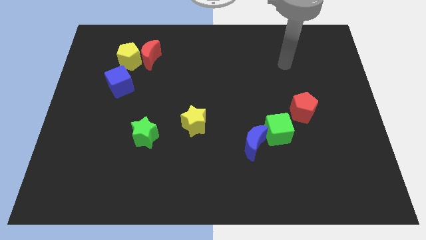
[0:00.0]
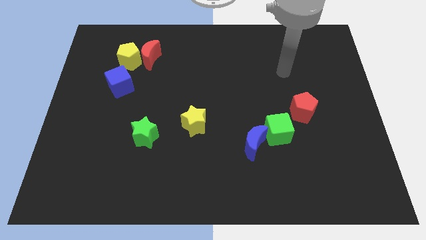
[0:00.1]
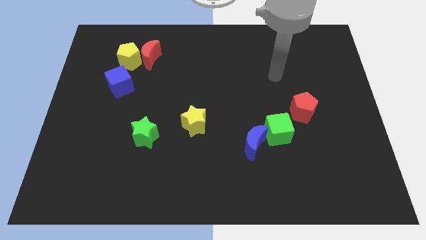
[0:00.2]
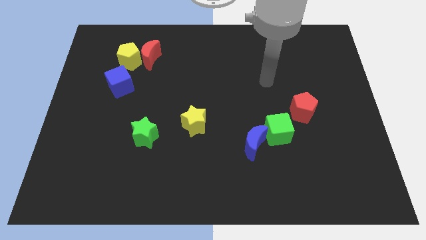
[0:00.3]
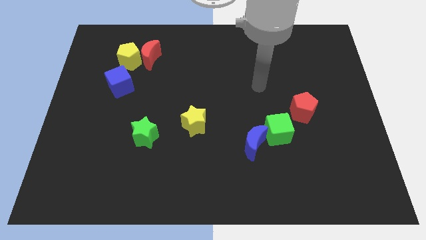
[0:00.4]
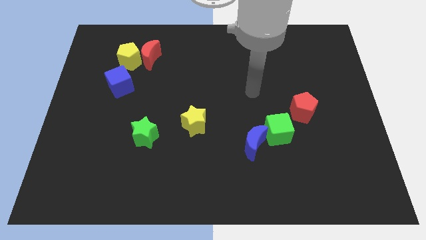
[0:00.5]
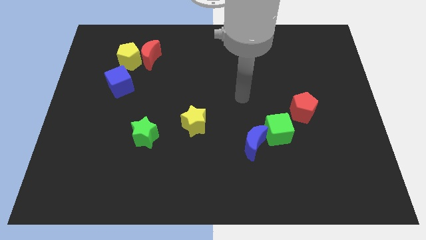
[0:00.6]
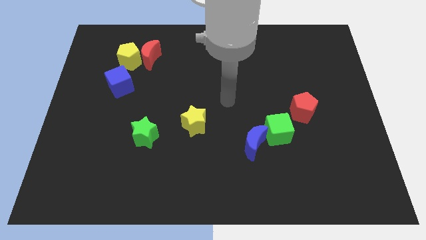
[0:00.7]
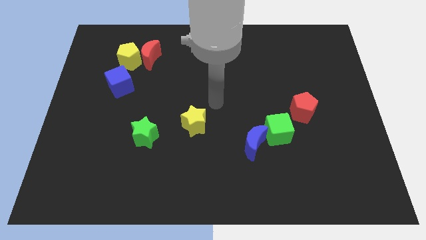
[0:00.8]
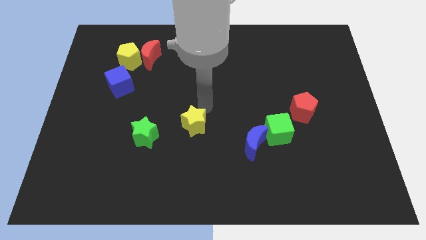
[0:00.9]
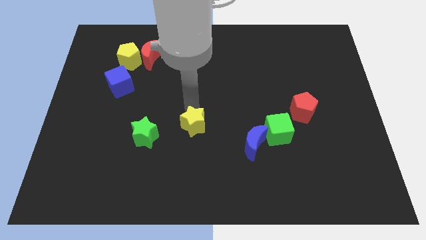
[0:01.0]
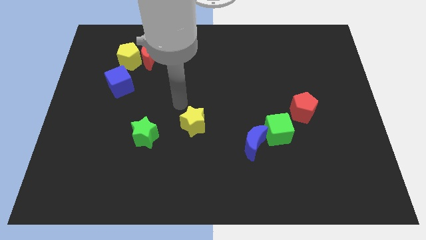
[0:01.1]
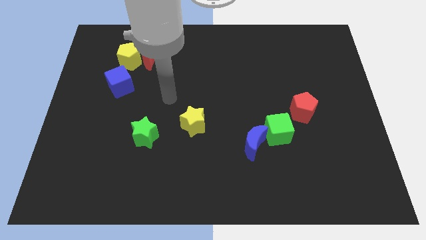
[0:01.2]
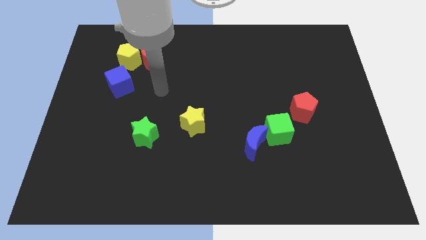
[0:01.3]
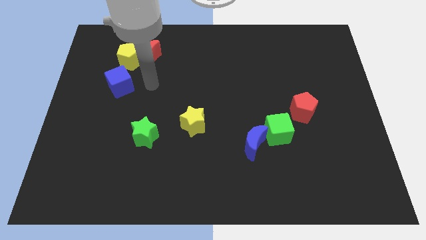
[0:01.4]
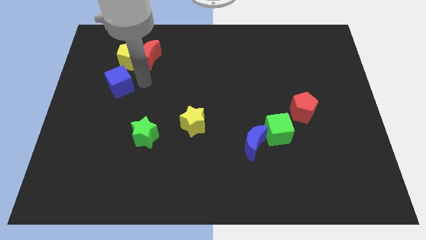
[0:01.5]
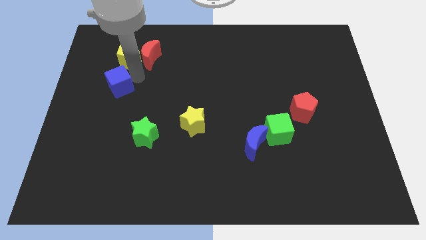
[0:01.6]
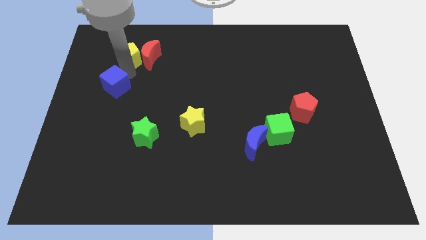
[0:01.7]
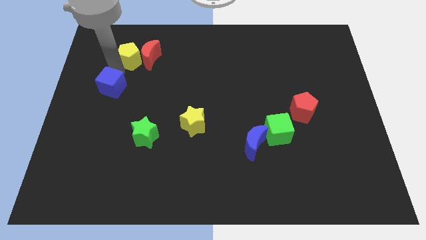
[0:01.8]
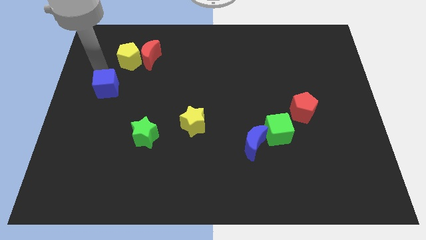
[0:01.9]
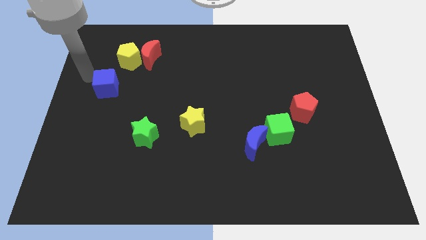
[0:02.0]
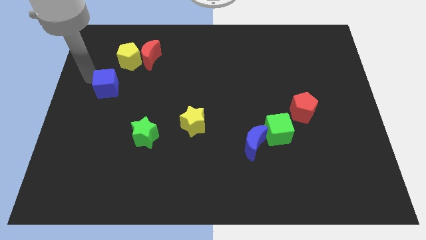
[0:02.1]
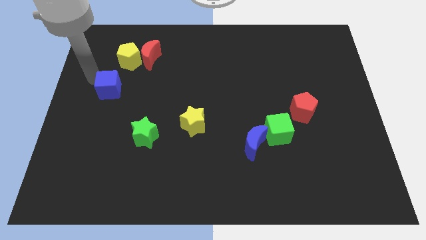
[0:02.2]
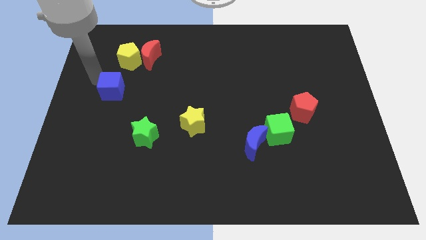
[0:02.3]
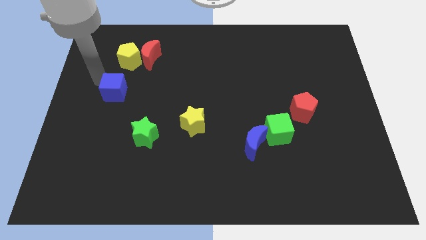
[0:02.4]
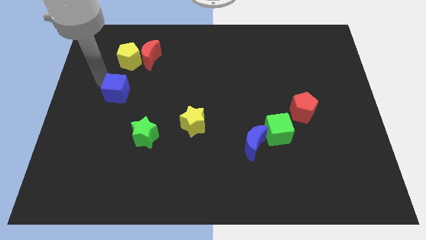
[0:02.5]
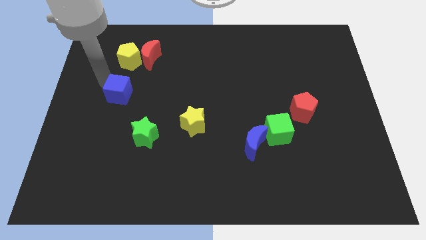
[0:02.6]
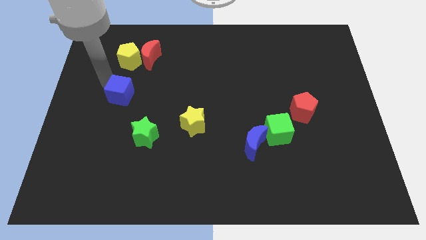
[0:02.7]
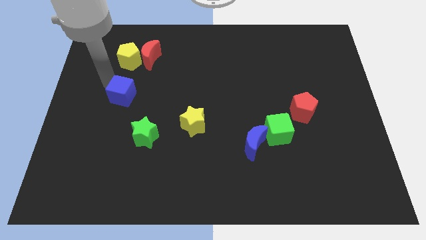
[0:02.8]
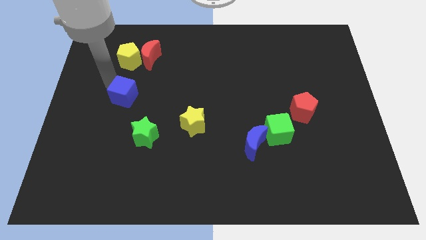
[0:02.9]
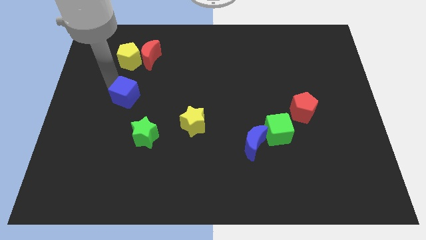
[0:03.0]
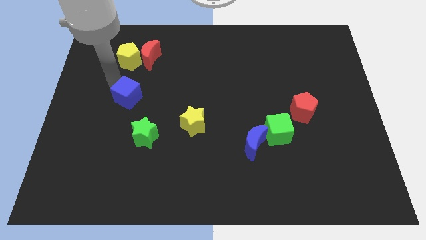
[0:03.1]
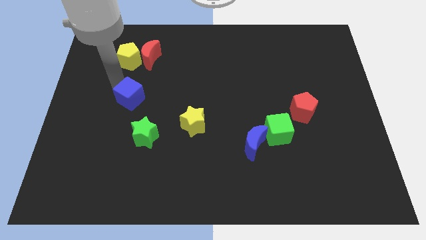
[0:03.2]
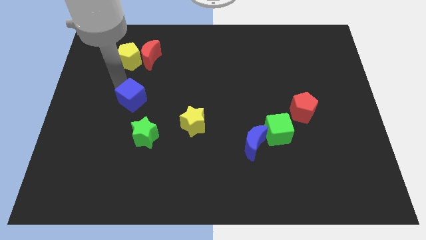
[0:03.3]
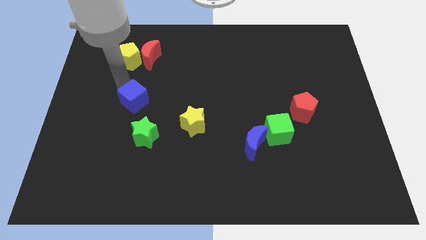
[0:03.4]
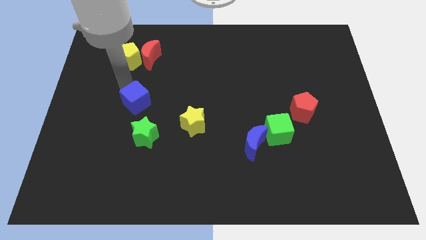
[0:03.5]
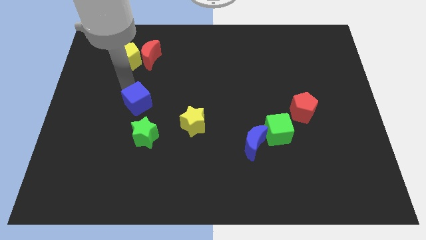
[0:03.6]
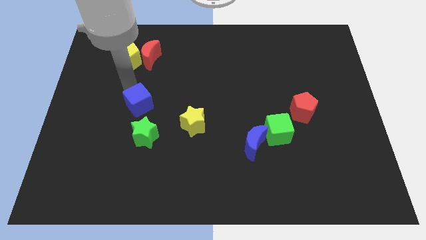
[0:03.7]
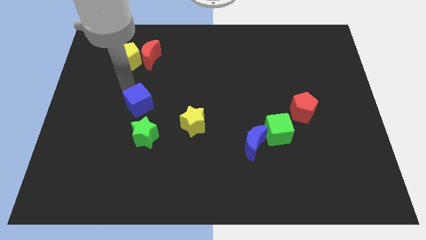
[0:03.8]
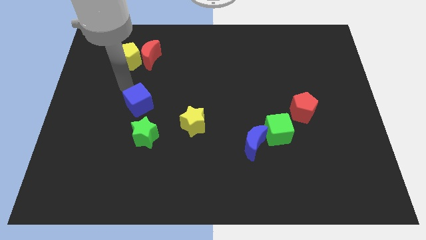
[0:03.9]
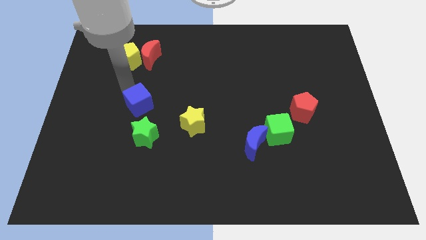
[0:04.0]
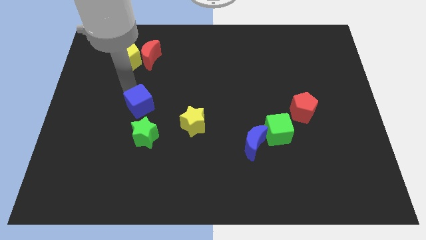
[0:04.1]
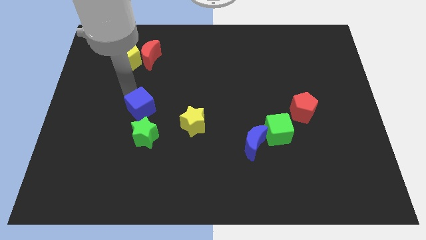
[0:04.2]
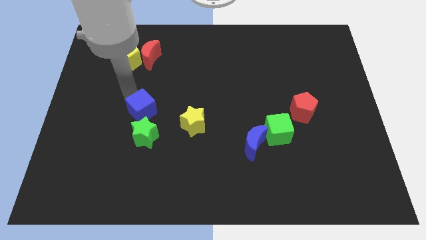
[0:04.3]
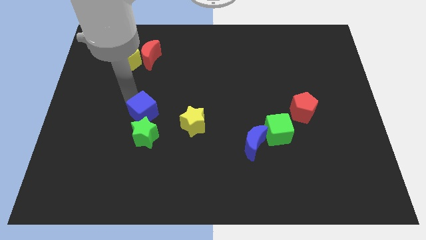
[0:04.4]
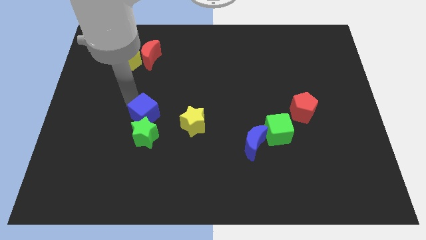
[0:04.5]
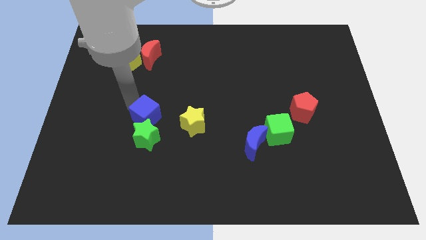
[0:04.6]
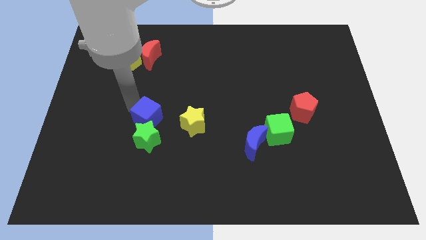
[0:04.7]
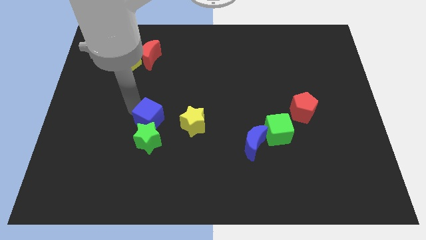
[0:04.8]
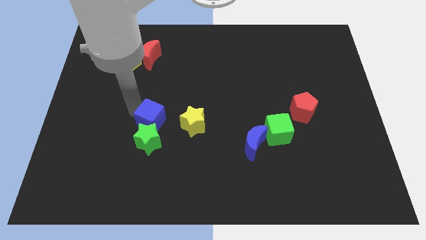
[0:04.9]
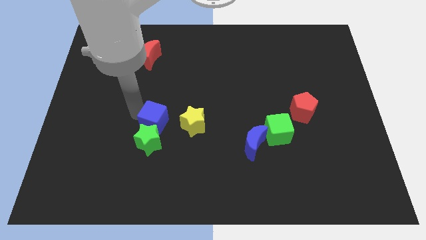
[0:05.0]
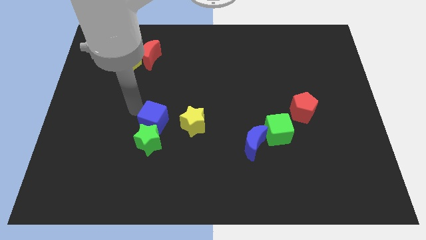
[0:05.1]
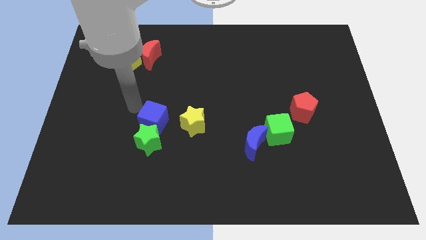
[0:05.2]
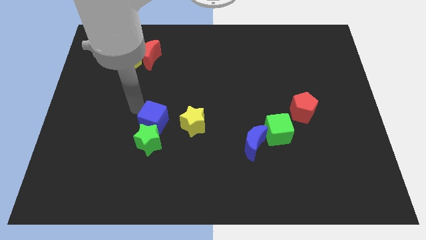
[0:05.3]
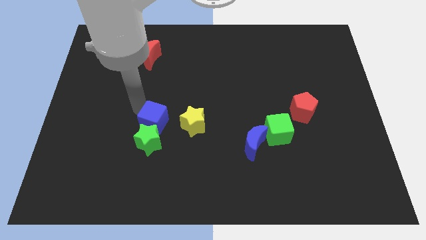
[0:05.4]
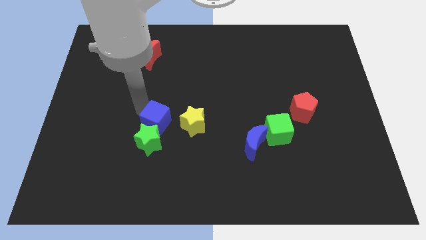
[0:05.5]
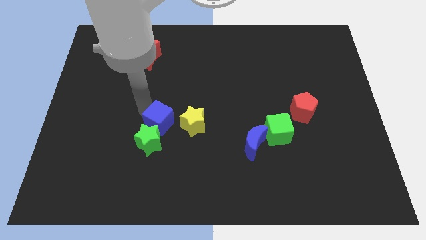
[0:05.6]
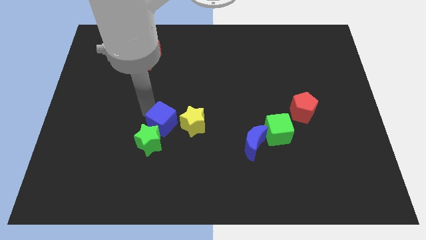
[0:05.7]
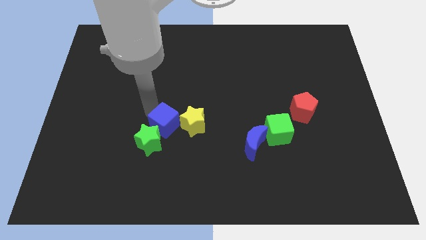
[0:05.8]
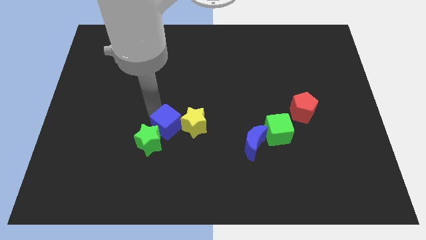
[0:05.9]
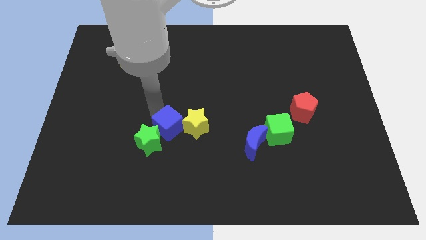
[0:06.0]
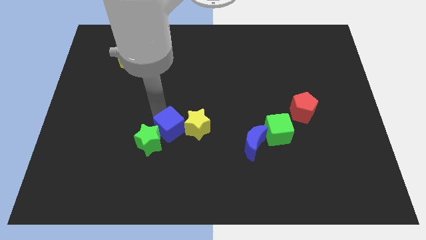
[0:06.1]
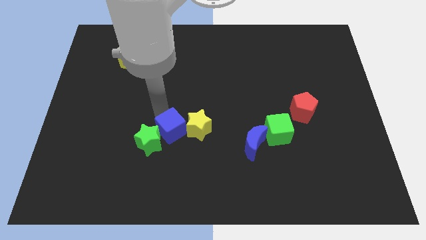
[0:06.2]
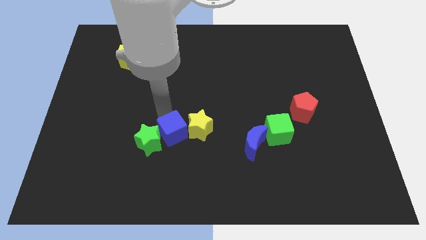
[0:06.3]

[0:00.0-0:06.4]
push the blue cube diagonally down and right

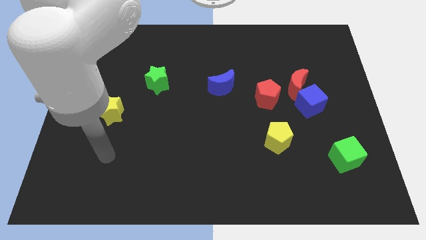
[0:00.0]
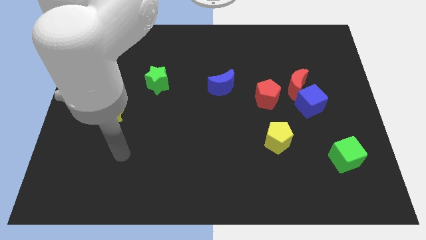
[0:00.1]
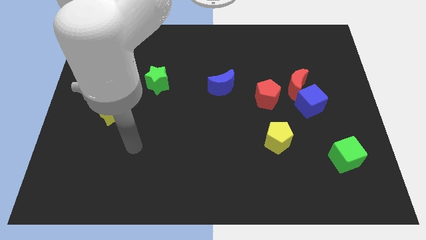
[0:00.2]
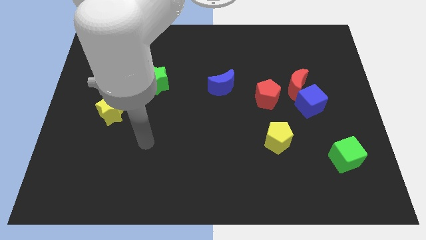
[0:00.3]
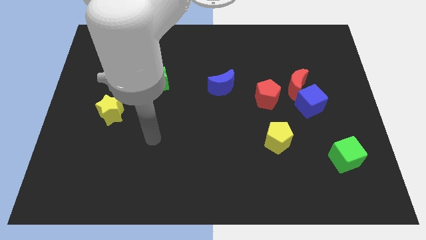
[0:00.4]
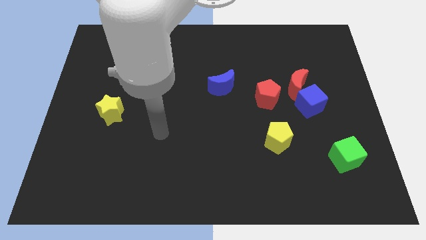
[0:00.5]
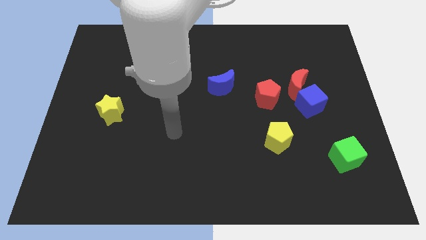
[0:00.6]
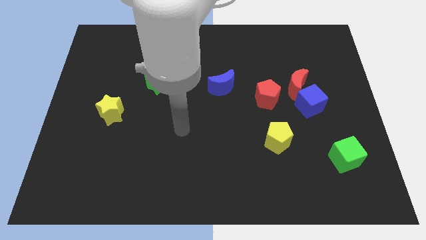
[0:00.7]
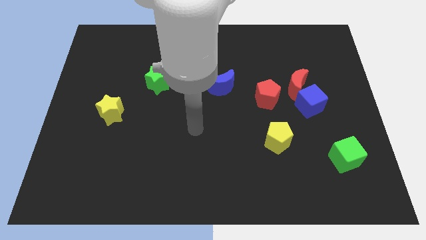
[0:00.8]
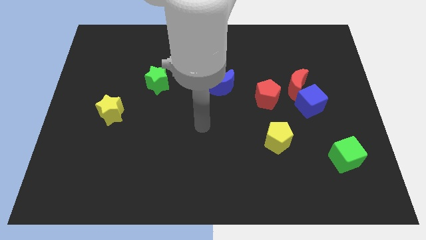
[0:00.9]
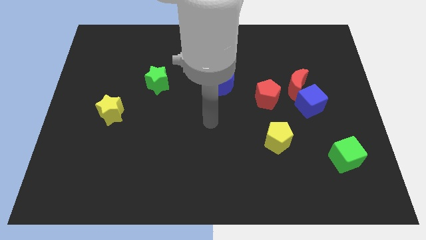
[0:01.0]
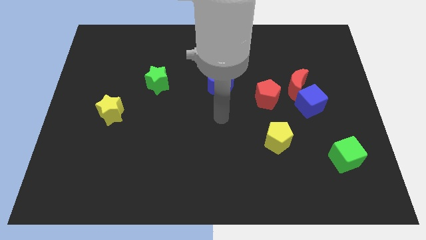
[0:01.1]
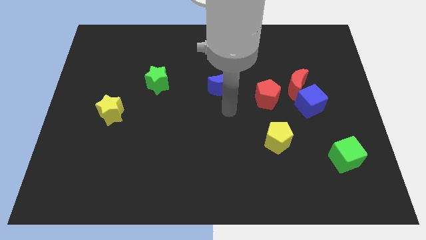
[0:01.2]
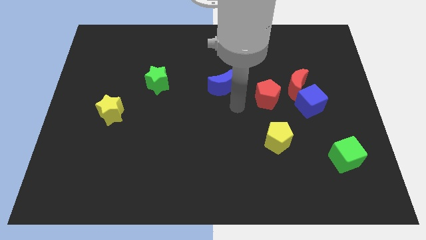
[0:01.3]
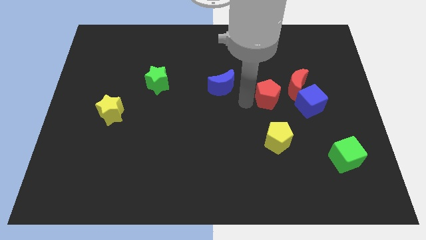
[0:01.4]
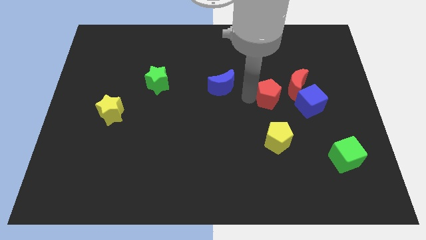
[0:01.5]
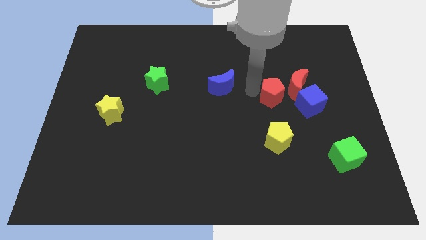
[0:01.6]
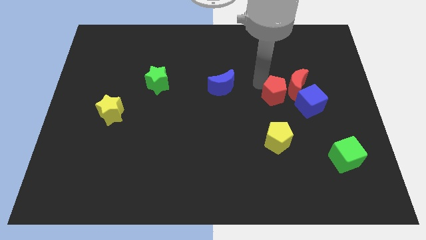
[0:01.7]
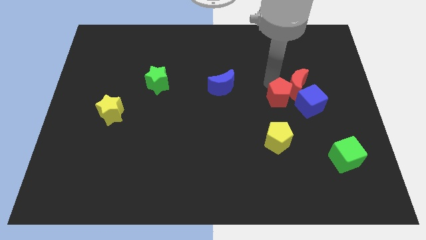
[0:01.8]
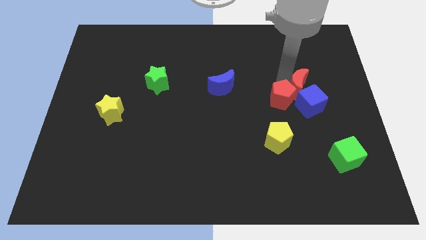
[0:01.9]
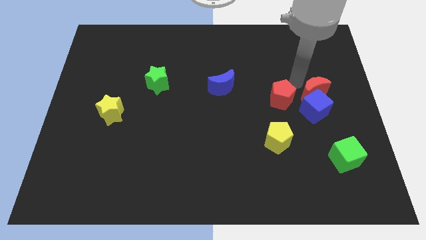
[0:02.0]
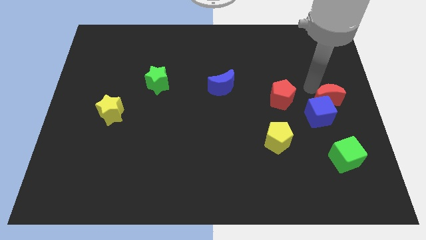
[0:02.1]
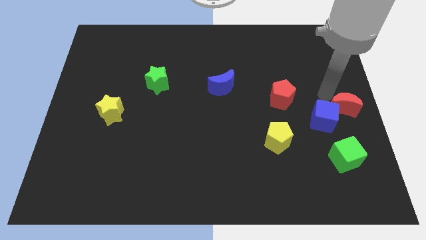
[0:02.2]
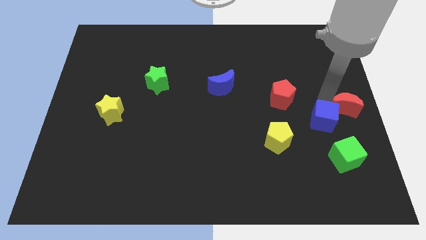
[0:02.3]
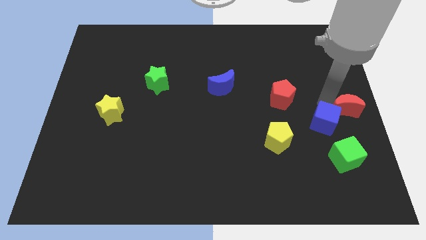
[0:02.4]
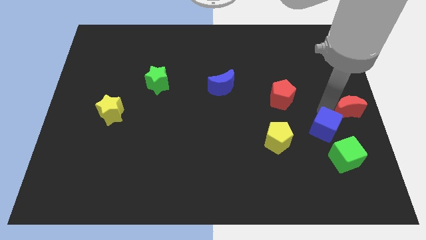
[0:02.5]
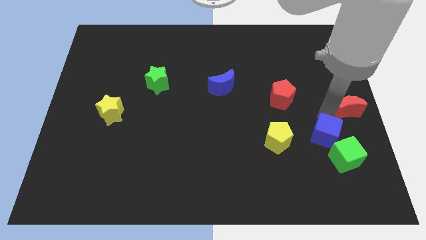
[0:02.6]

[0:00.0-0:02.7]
move the blue cube downwards somewhat
